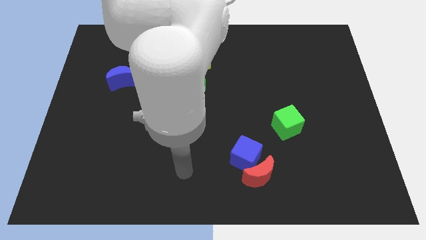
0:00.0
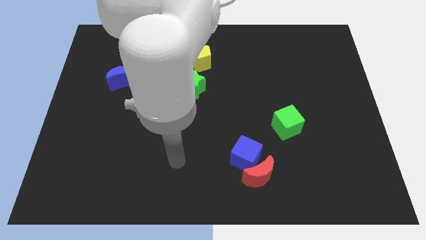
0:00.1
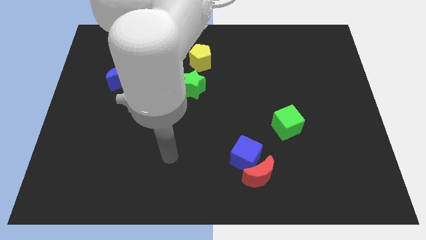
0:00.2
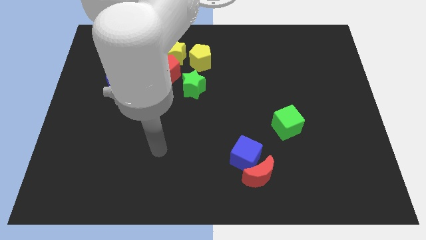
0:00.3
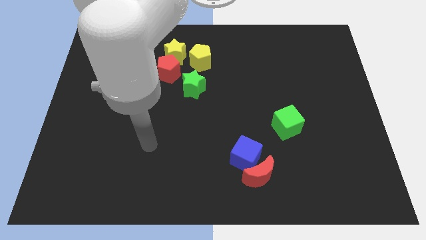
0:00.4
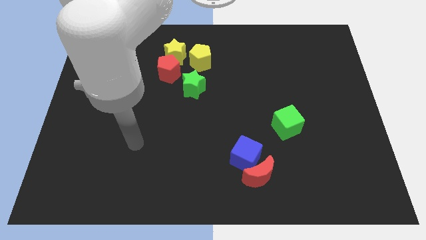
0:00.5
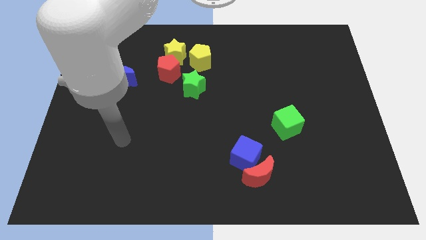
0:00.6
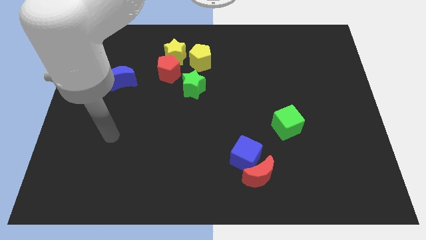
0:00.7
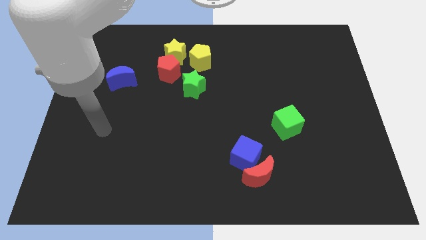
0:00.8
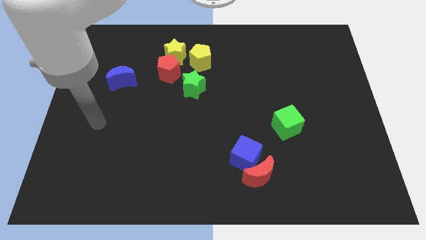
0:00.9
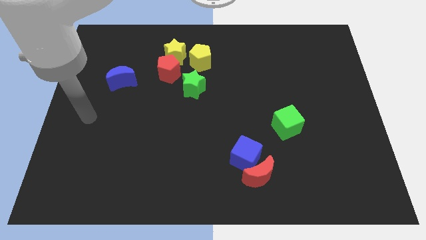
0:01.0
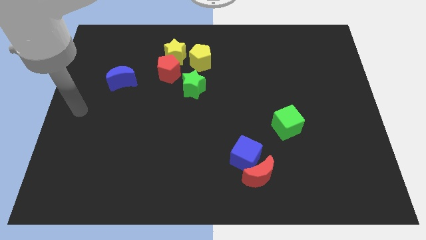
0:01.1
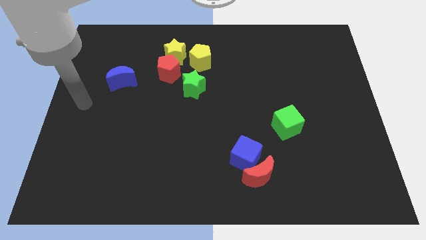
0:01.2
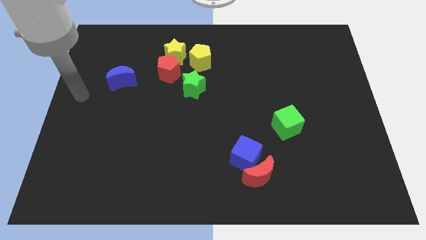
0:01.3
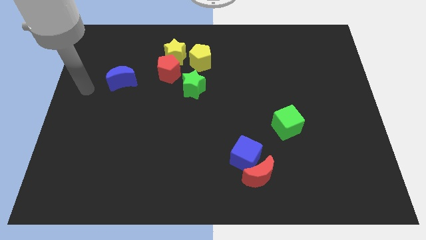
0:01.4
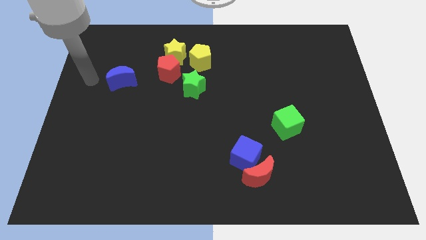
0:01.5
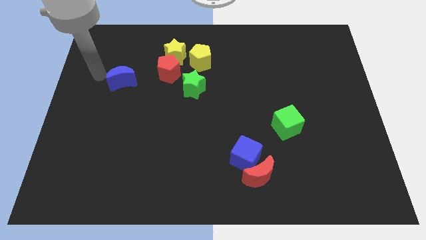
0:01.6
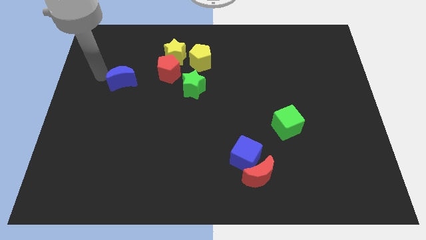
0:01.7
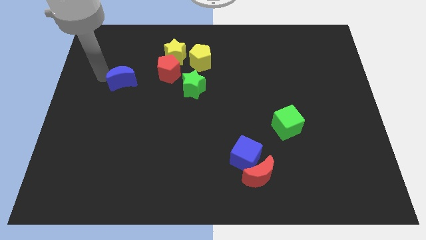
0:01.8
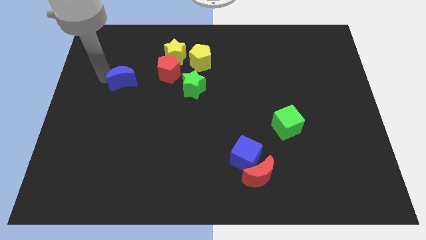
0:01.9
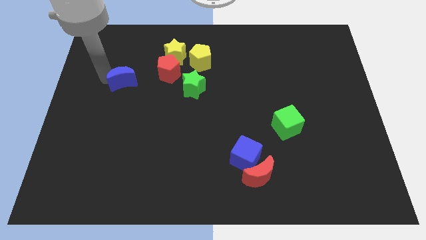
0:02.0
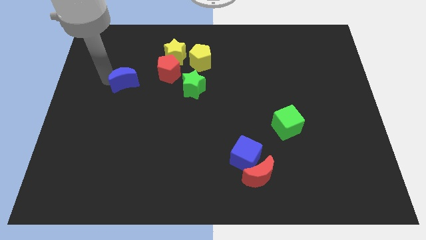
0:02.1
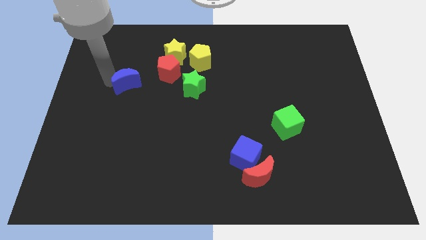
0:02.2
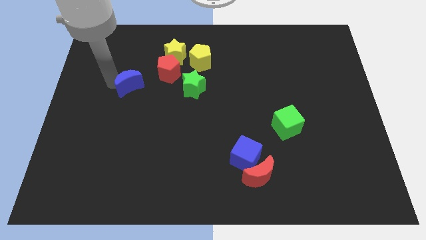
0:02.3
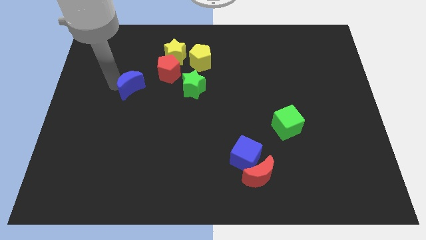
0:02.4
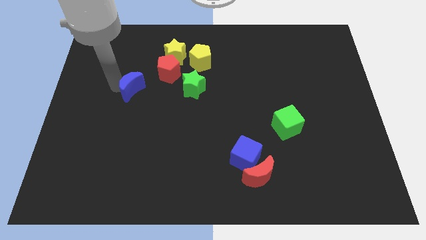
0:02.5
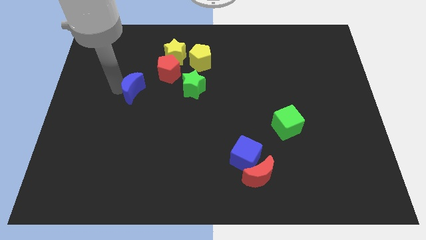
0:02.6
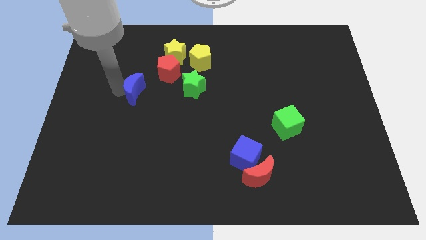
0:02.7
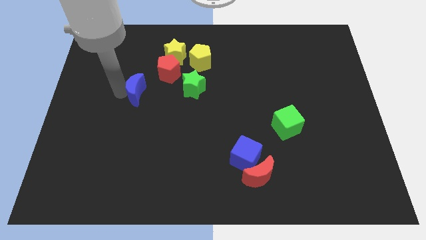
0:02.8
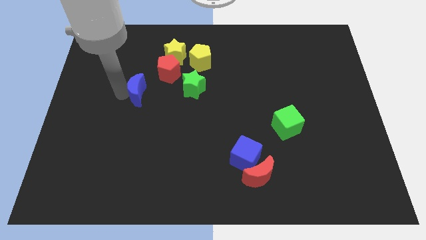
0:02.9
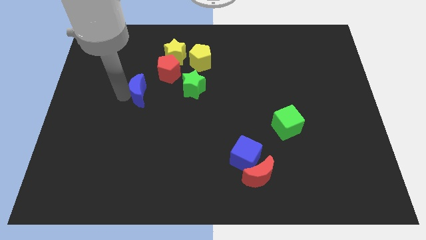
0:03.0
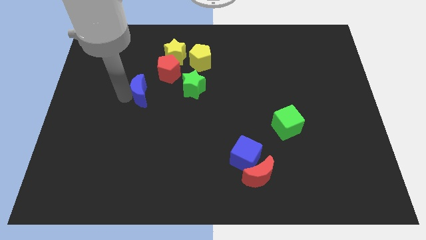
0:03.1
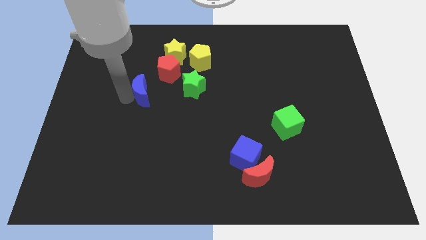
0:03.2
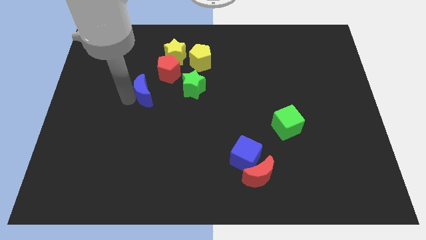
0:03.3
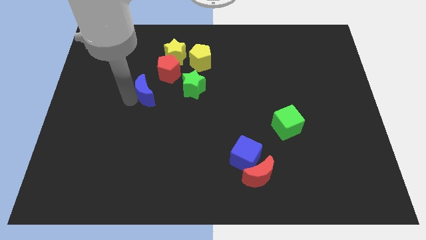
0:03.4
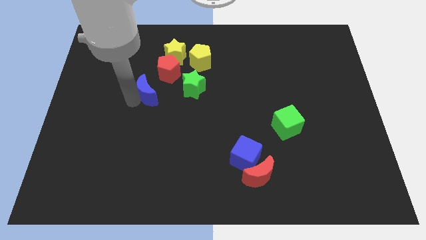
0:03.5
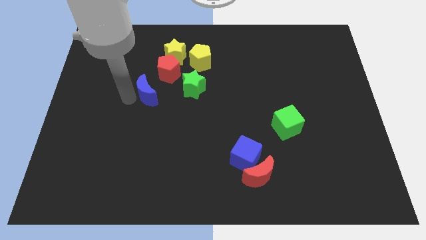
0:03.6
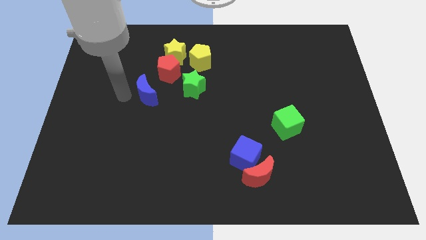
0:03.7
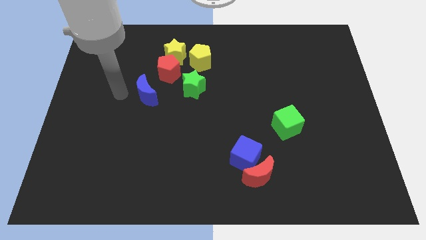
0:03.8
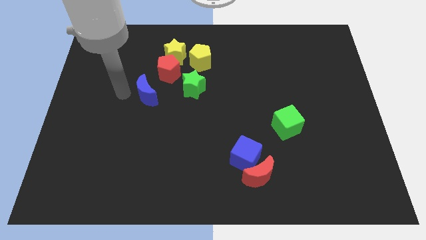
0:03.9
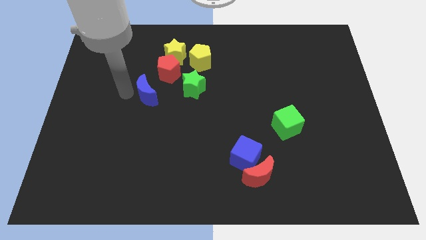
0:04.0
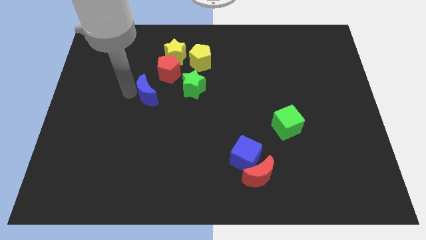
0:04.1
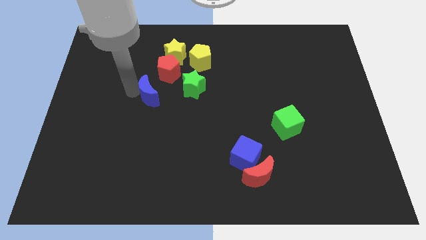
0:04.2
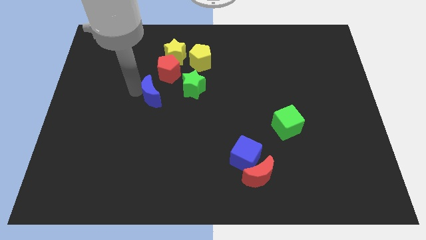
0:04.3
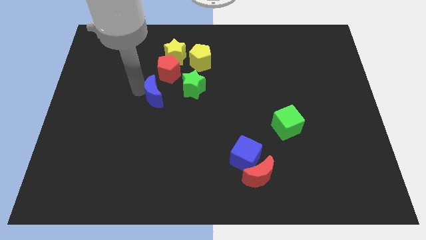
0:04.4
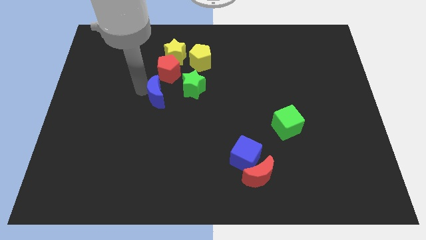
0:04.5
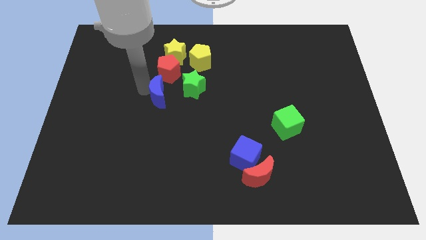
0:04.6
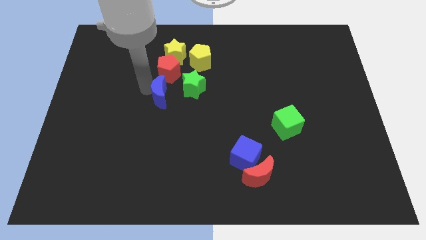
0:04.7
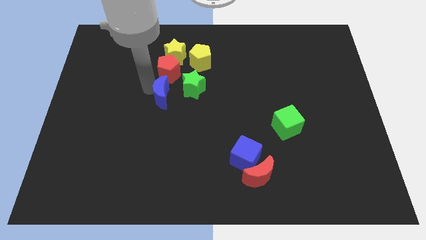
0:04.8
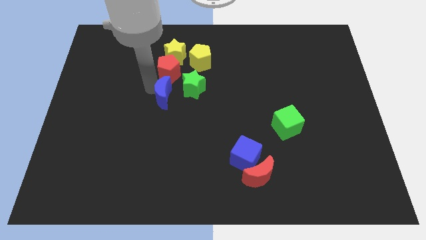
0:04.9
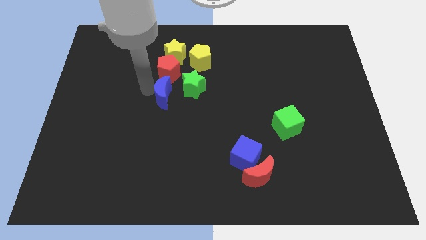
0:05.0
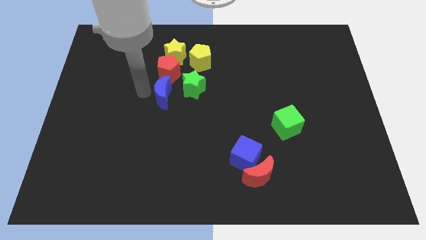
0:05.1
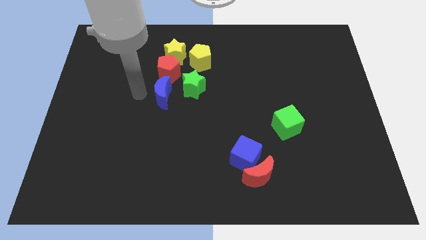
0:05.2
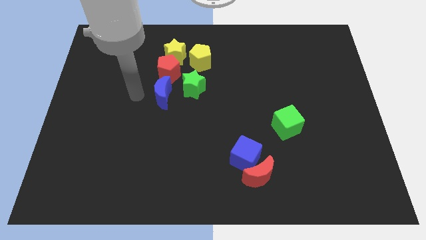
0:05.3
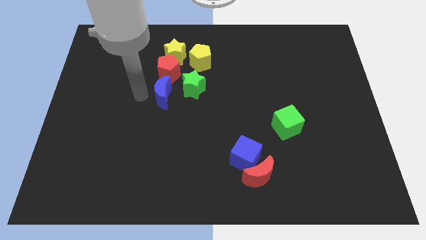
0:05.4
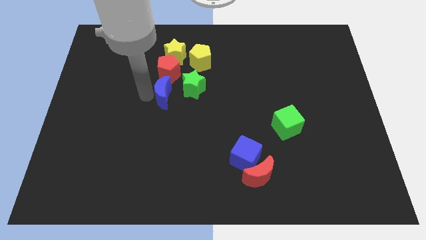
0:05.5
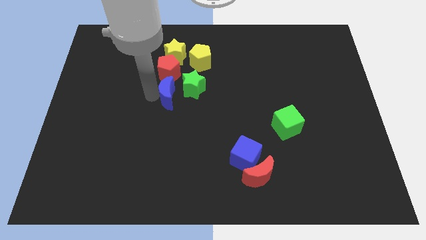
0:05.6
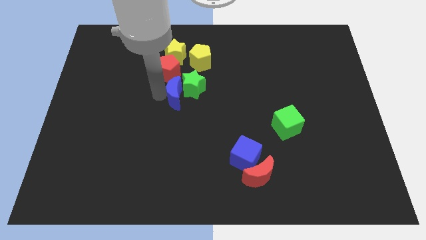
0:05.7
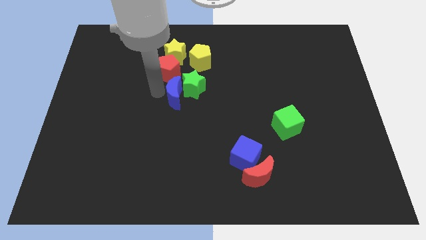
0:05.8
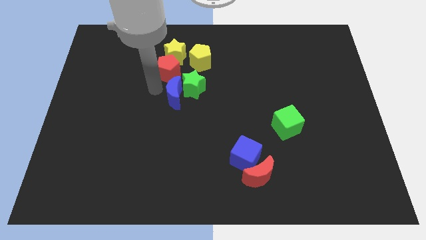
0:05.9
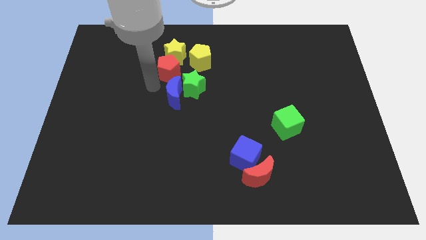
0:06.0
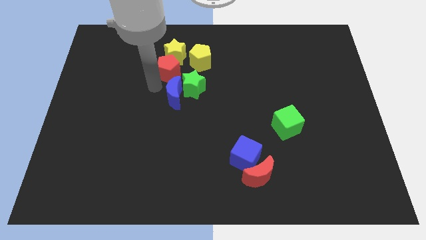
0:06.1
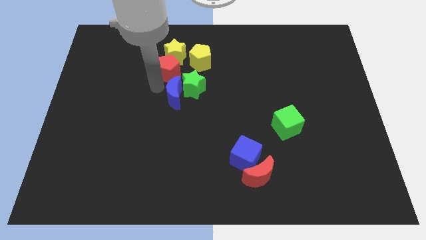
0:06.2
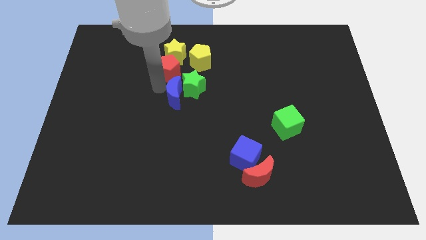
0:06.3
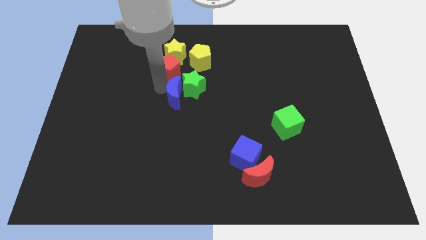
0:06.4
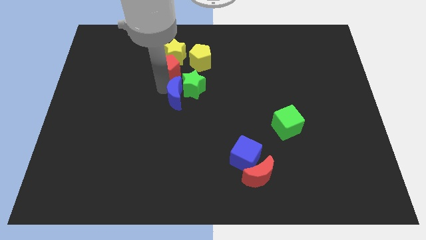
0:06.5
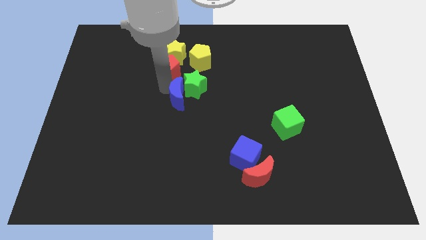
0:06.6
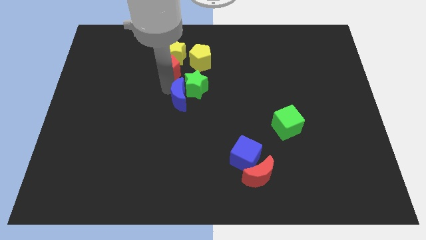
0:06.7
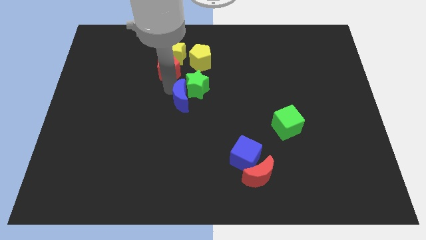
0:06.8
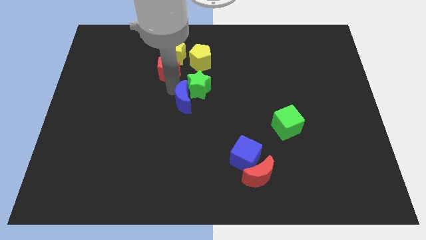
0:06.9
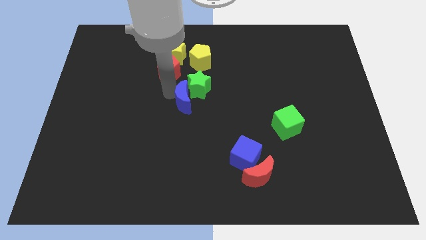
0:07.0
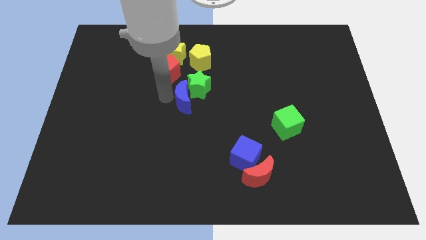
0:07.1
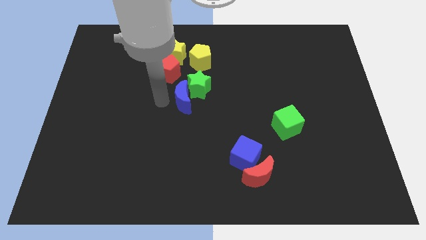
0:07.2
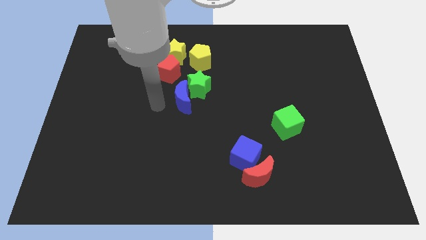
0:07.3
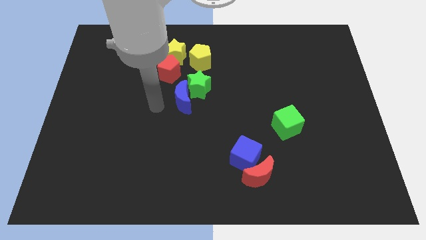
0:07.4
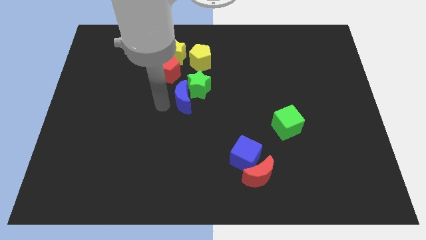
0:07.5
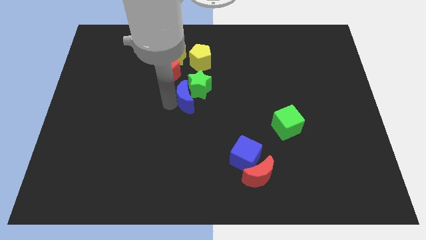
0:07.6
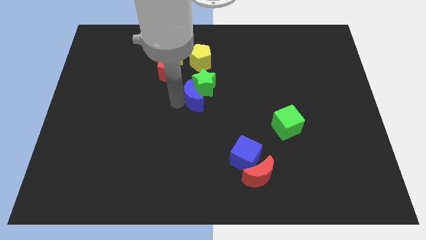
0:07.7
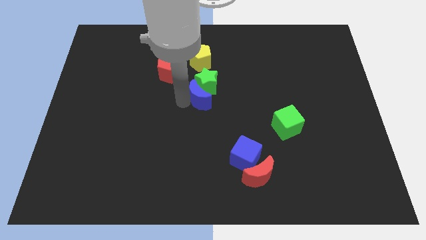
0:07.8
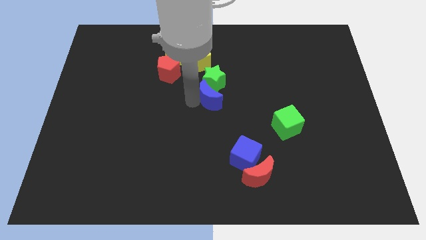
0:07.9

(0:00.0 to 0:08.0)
push the blue moon to the right
